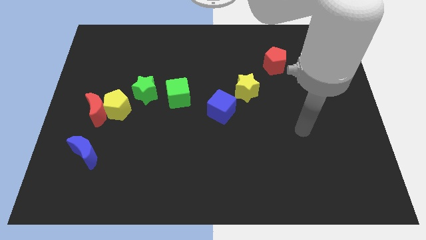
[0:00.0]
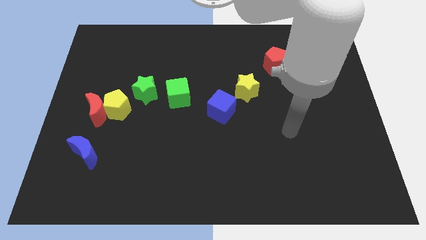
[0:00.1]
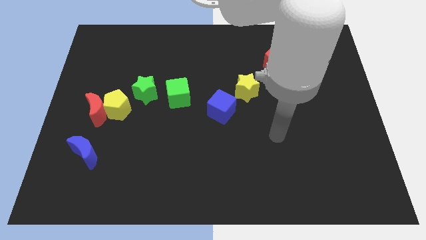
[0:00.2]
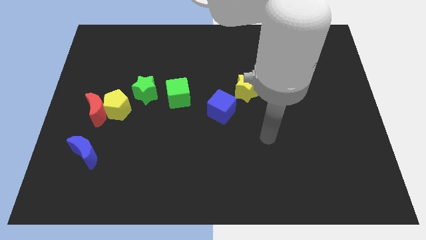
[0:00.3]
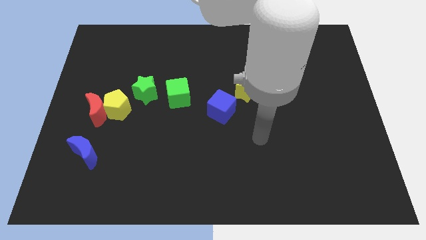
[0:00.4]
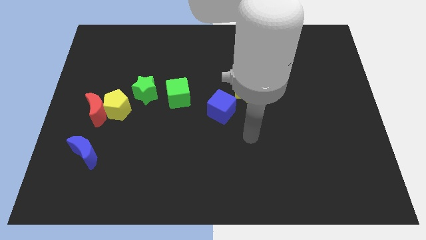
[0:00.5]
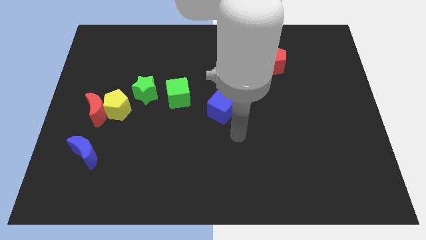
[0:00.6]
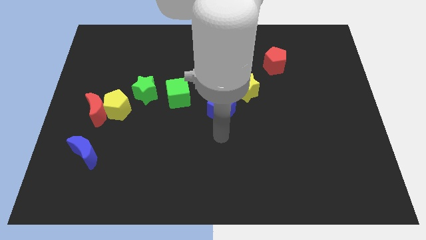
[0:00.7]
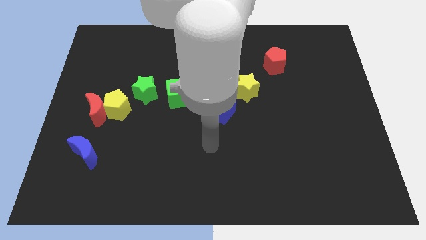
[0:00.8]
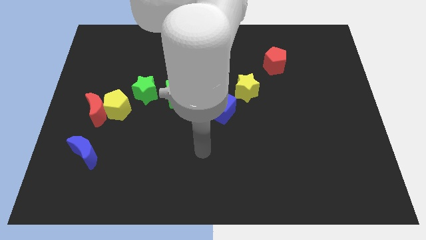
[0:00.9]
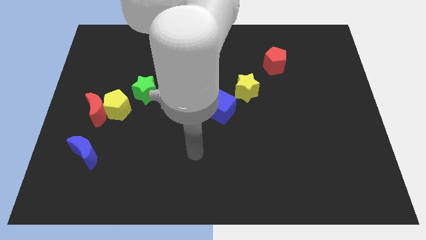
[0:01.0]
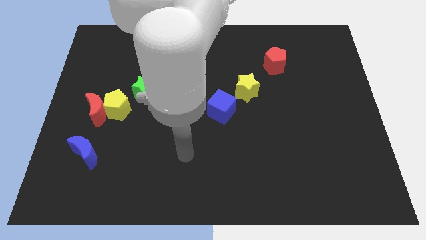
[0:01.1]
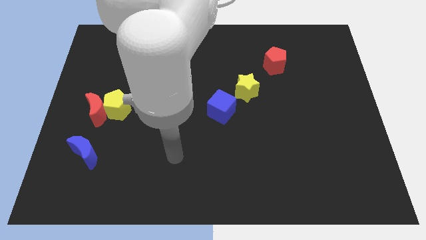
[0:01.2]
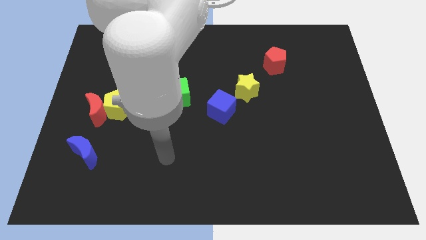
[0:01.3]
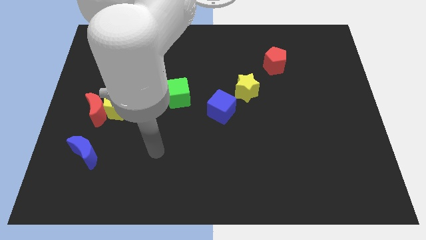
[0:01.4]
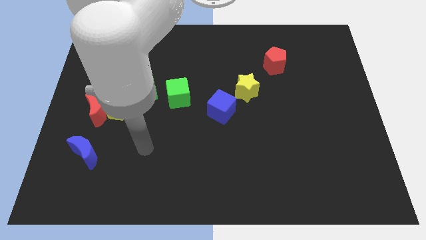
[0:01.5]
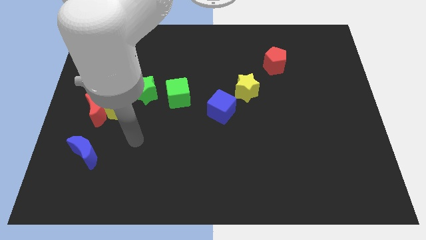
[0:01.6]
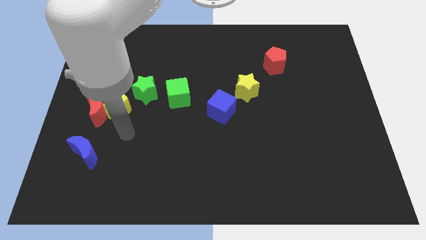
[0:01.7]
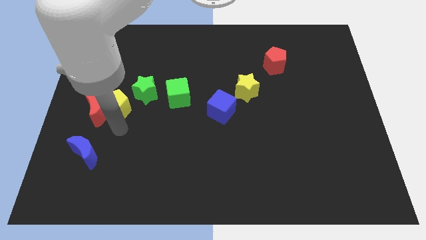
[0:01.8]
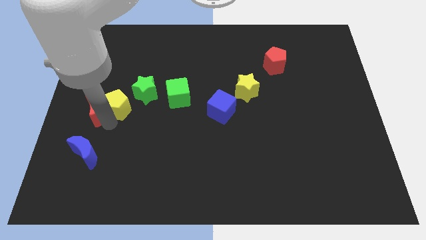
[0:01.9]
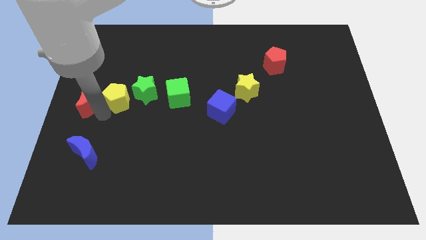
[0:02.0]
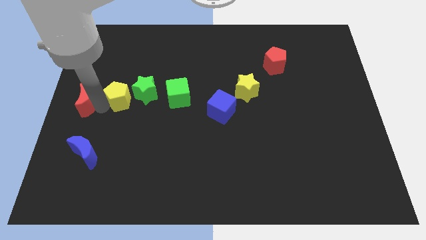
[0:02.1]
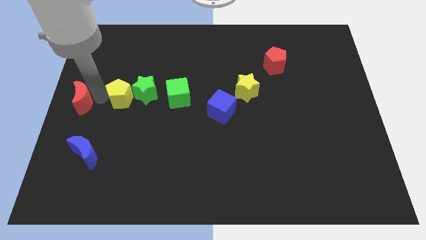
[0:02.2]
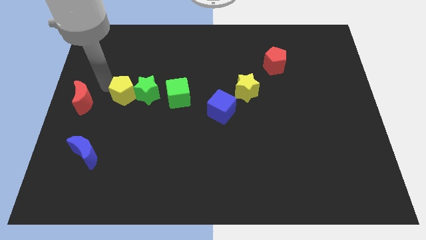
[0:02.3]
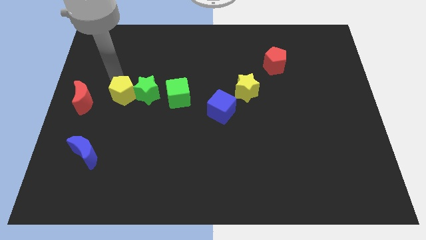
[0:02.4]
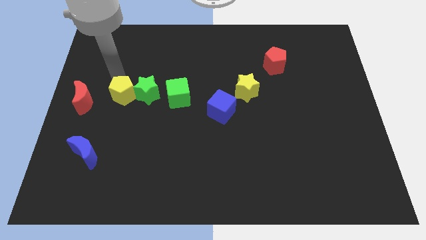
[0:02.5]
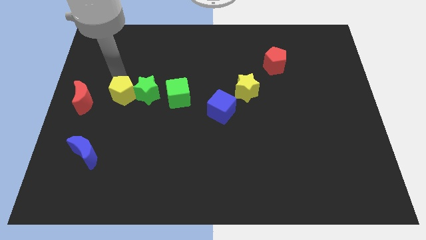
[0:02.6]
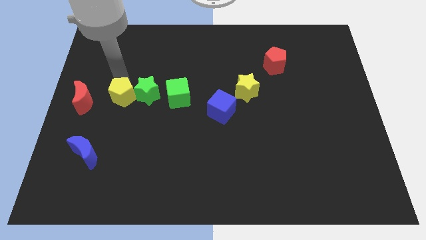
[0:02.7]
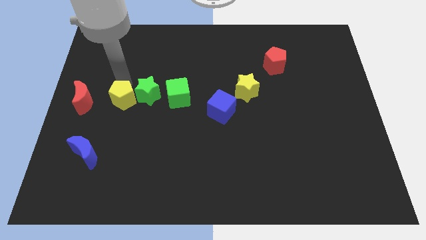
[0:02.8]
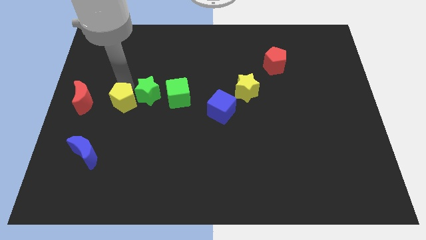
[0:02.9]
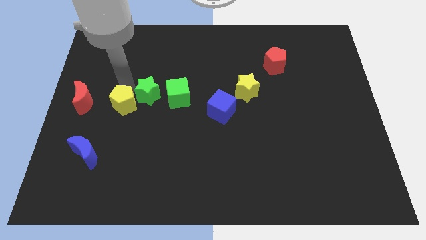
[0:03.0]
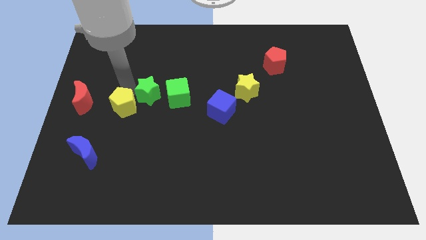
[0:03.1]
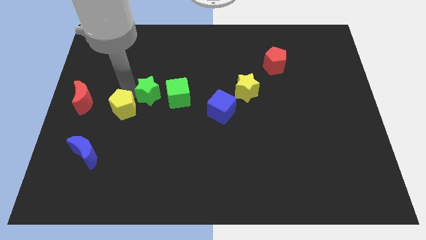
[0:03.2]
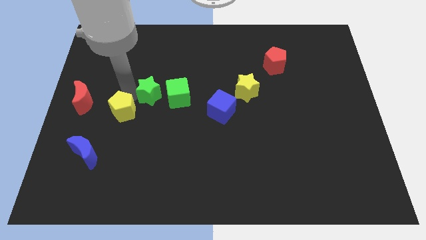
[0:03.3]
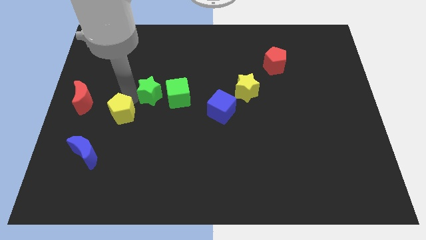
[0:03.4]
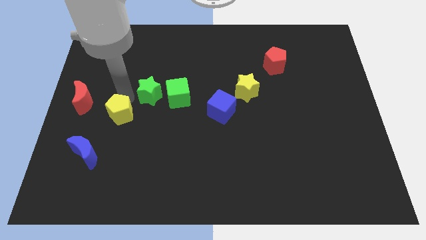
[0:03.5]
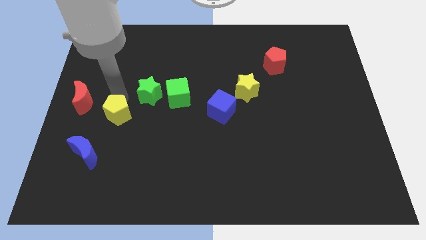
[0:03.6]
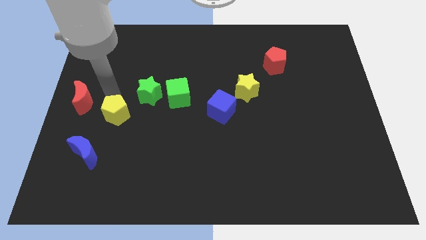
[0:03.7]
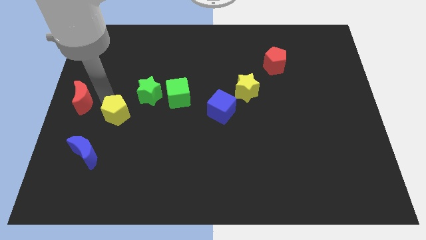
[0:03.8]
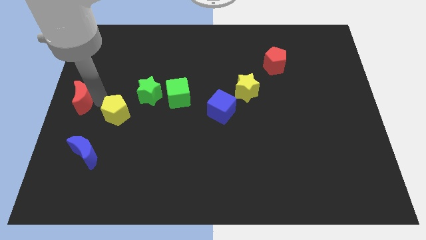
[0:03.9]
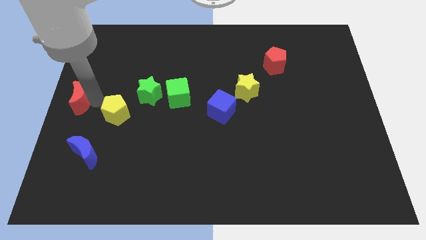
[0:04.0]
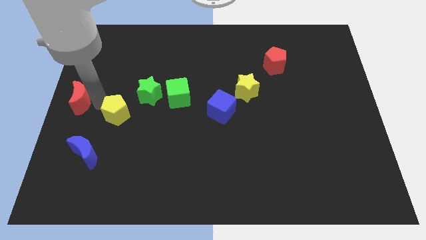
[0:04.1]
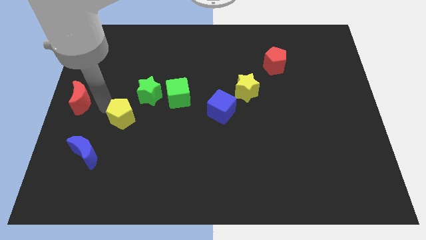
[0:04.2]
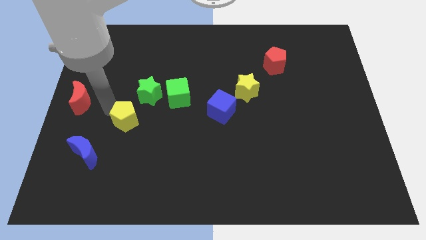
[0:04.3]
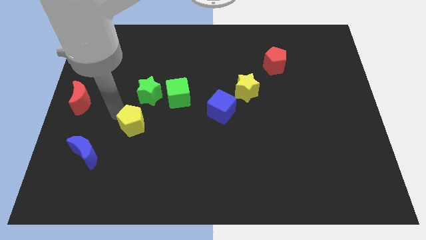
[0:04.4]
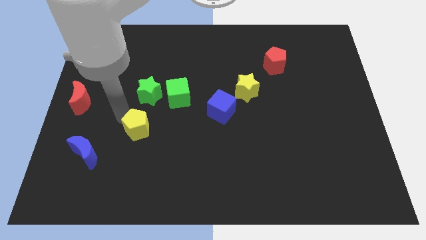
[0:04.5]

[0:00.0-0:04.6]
slightly slide the yellow pentagon down and to the right

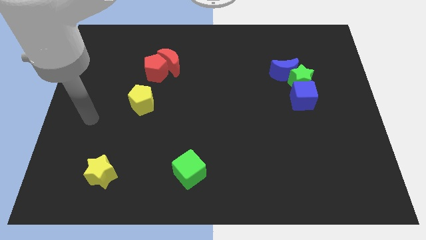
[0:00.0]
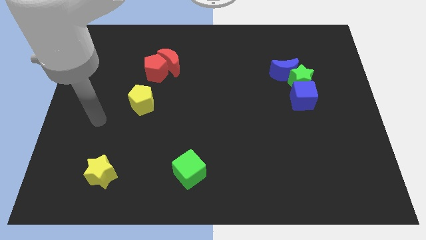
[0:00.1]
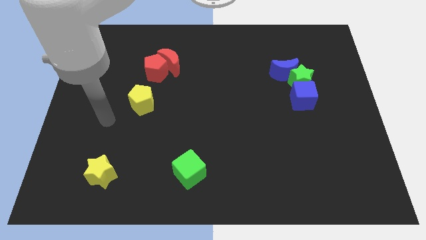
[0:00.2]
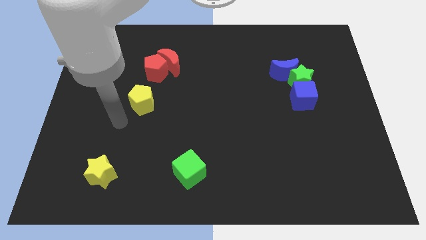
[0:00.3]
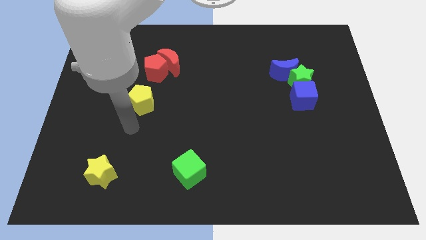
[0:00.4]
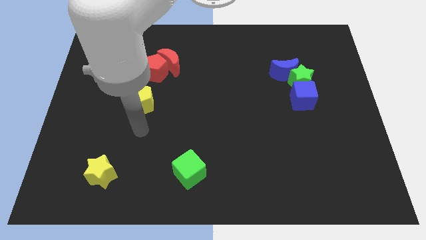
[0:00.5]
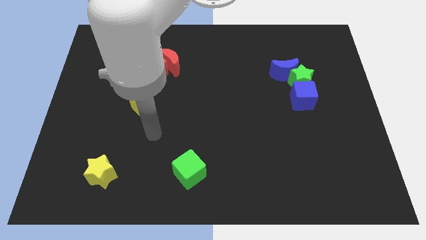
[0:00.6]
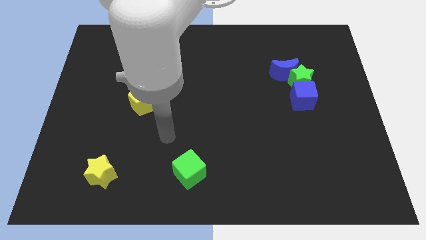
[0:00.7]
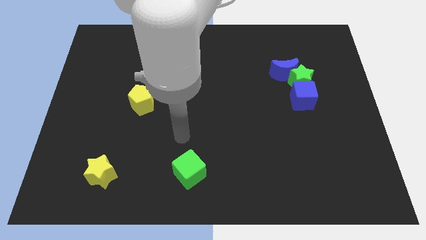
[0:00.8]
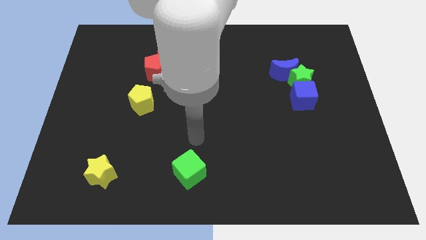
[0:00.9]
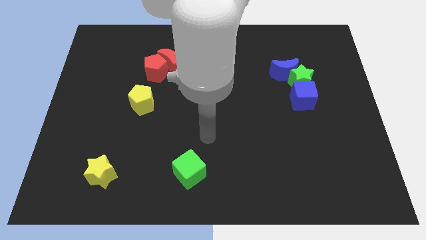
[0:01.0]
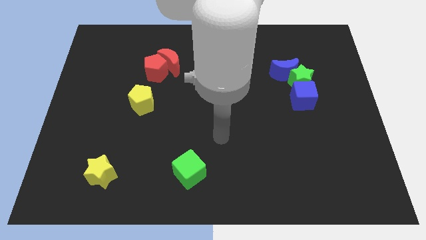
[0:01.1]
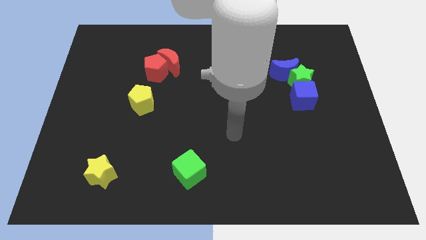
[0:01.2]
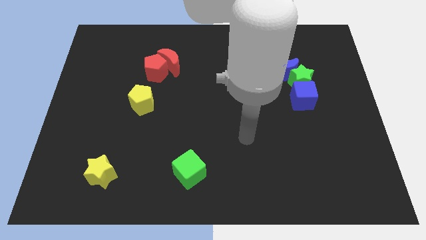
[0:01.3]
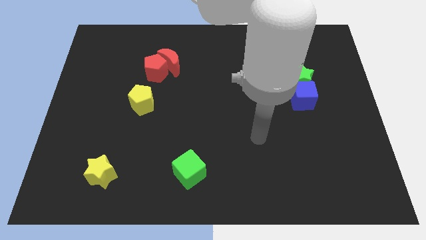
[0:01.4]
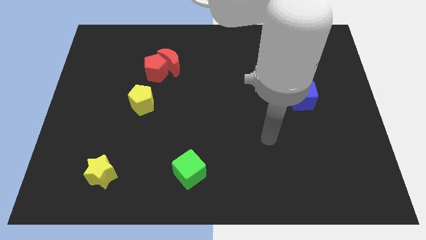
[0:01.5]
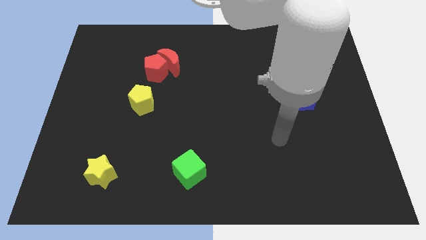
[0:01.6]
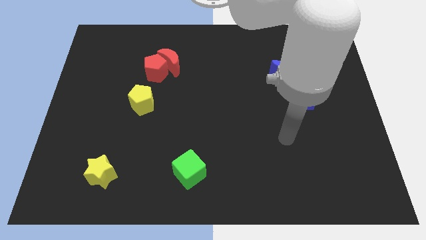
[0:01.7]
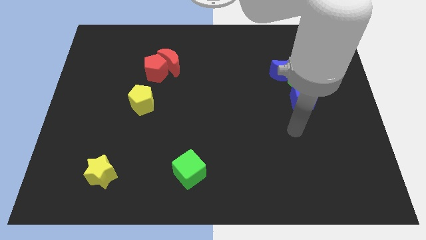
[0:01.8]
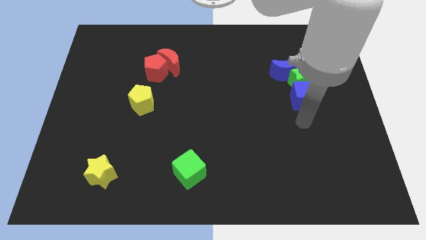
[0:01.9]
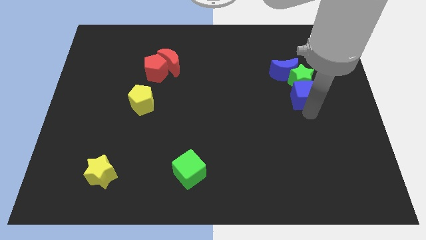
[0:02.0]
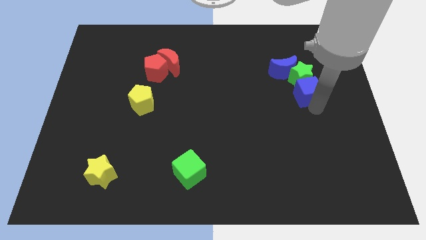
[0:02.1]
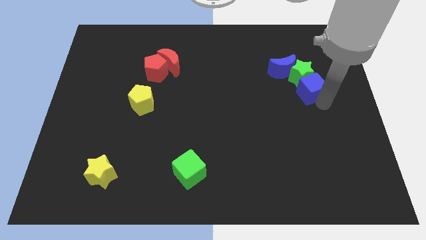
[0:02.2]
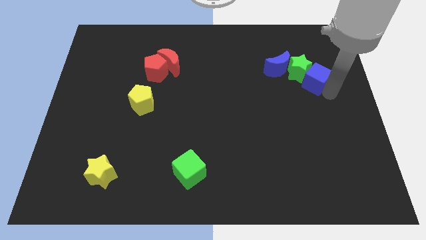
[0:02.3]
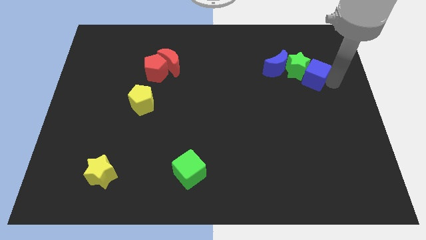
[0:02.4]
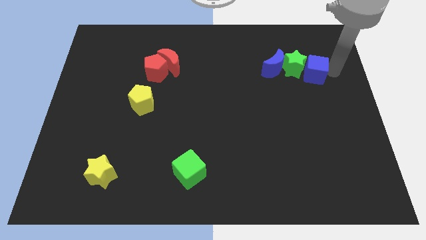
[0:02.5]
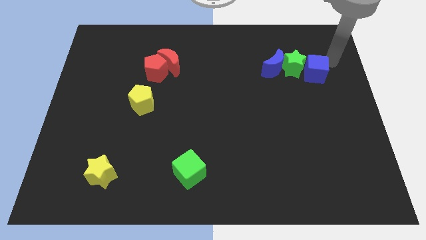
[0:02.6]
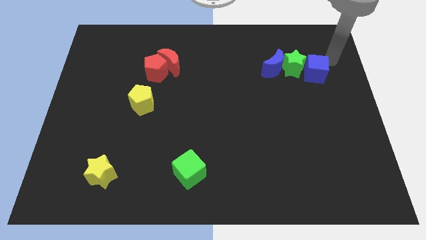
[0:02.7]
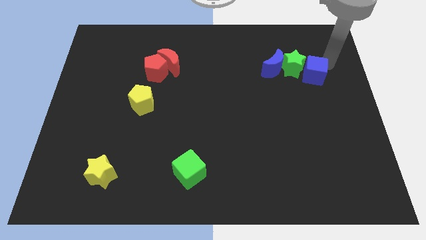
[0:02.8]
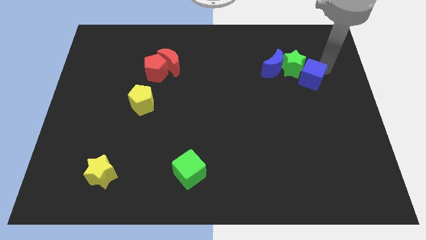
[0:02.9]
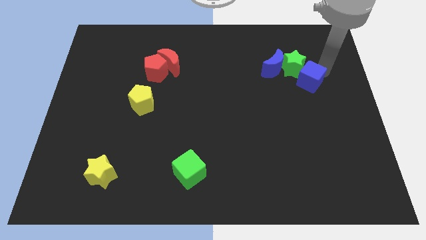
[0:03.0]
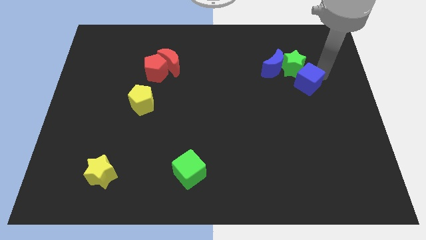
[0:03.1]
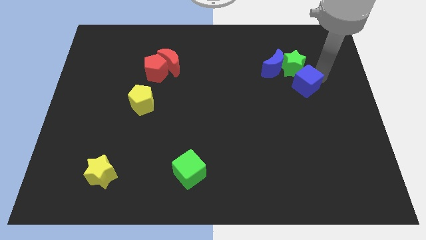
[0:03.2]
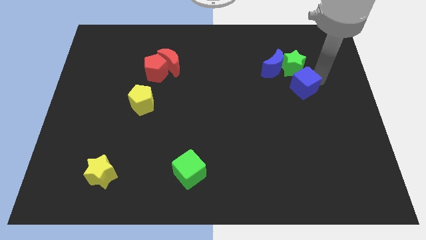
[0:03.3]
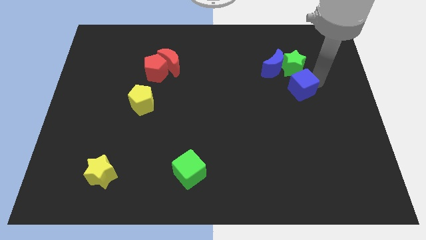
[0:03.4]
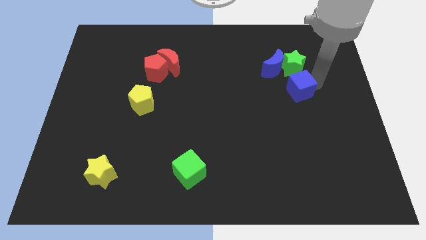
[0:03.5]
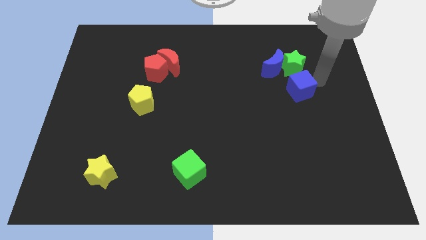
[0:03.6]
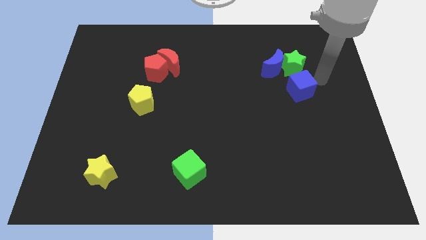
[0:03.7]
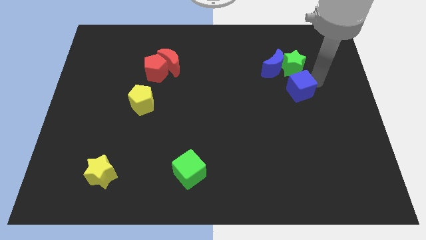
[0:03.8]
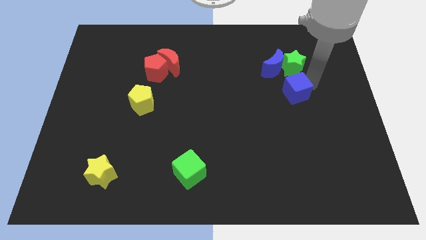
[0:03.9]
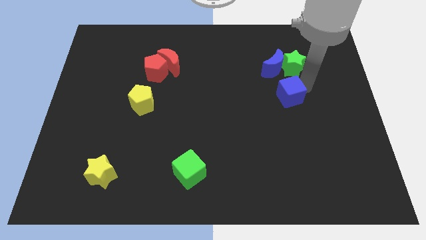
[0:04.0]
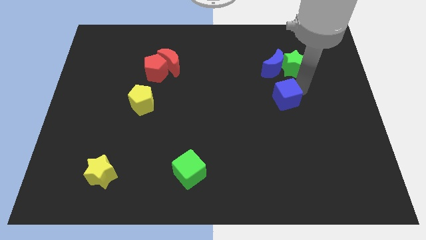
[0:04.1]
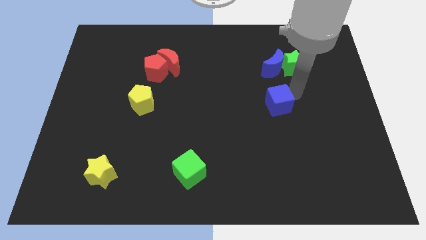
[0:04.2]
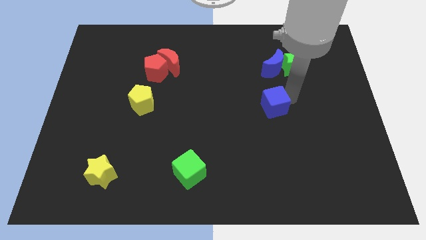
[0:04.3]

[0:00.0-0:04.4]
push the blue cube to the left a bit
